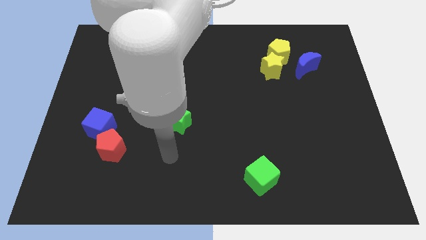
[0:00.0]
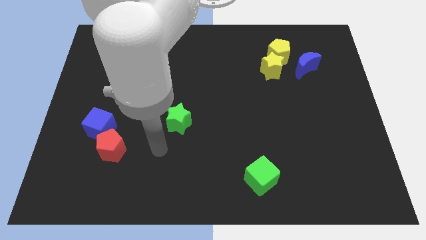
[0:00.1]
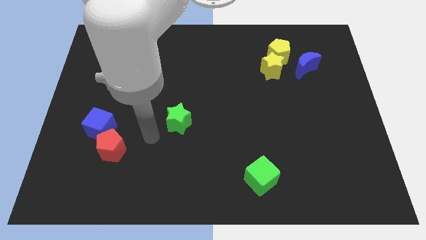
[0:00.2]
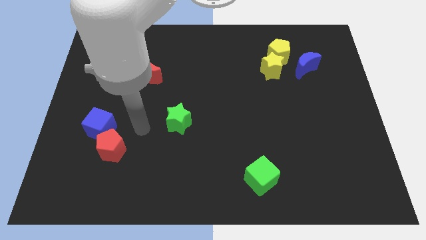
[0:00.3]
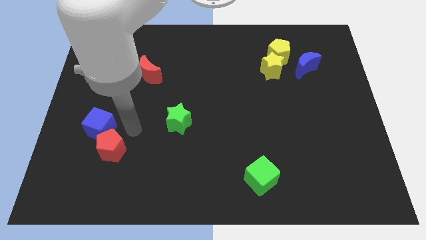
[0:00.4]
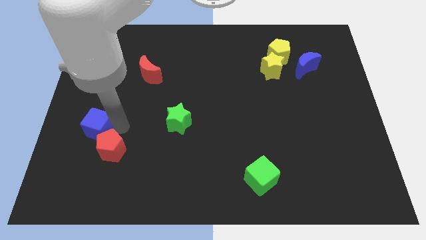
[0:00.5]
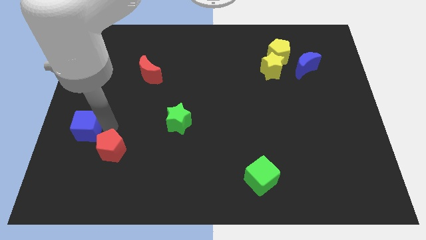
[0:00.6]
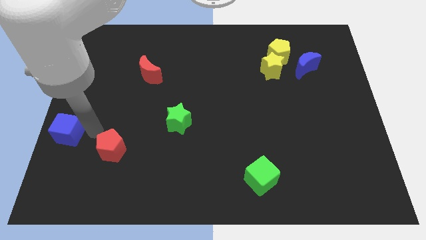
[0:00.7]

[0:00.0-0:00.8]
pull the red pentagon apart from the blue cube

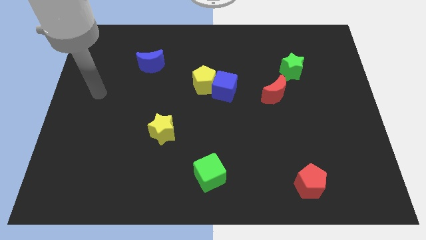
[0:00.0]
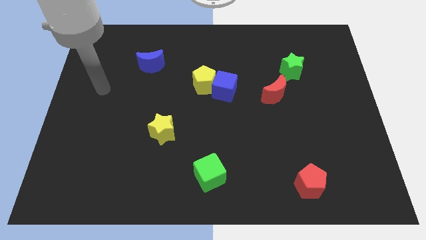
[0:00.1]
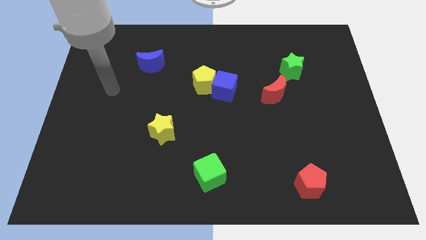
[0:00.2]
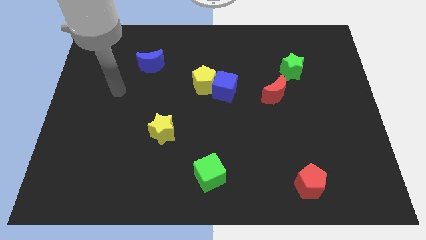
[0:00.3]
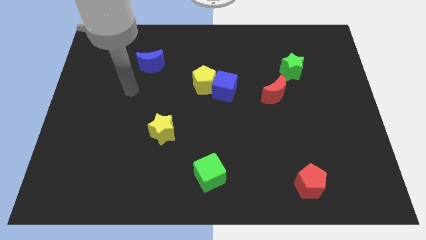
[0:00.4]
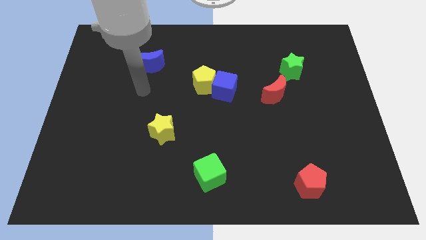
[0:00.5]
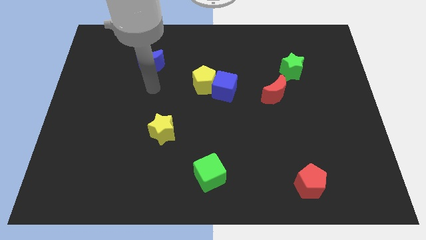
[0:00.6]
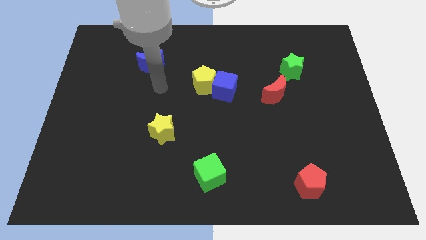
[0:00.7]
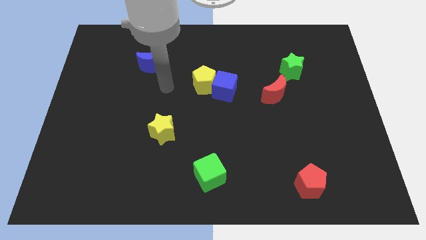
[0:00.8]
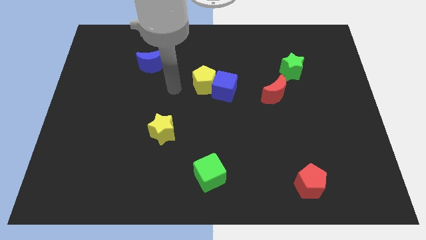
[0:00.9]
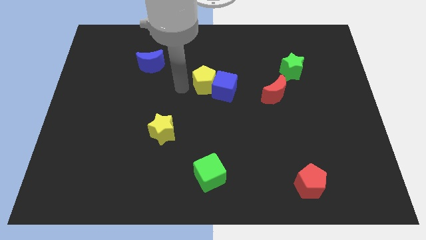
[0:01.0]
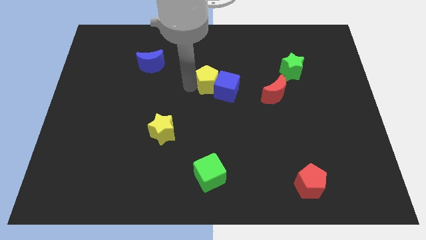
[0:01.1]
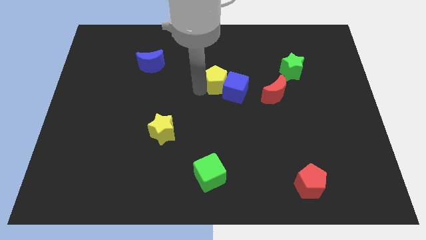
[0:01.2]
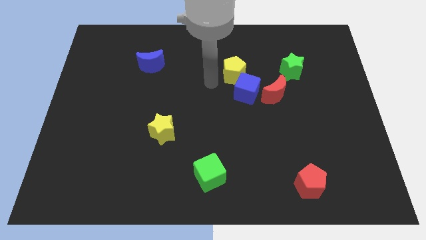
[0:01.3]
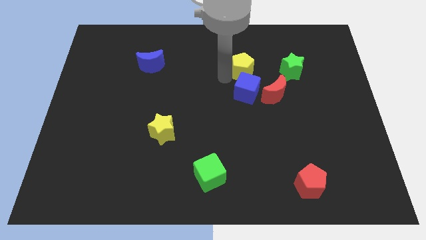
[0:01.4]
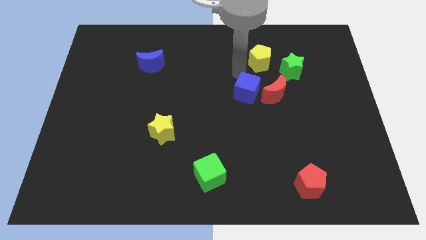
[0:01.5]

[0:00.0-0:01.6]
separate the blue cube from the yellow pentagon

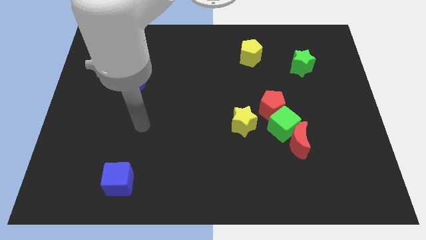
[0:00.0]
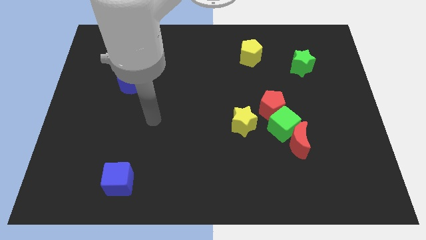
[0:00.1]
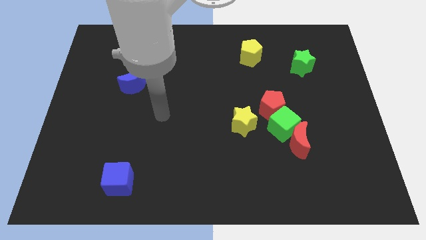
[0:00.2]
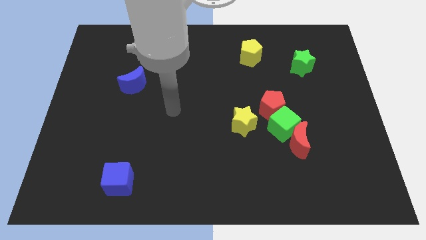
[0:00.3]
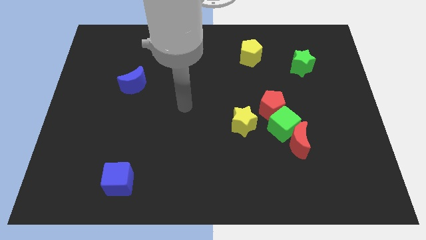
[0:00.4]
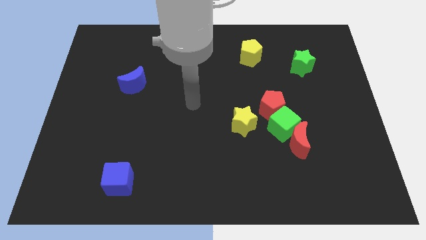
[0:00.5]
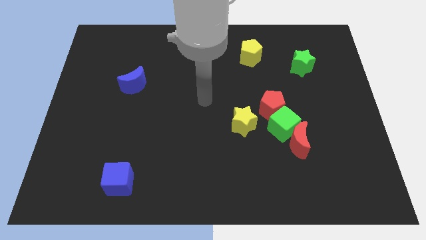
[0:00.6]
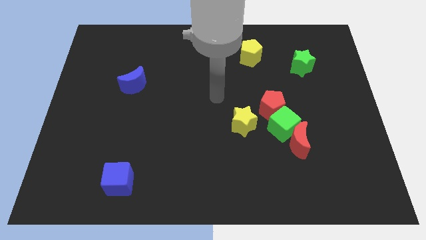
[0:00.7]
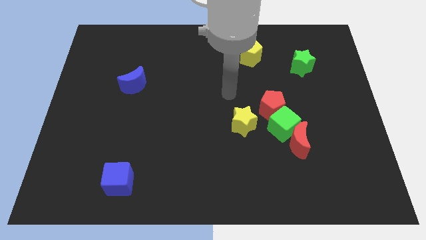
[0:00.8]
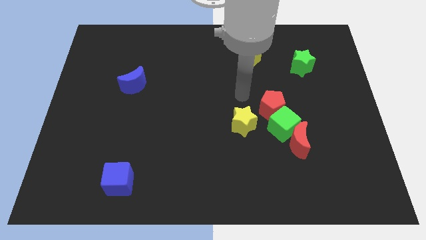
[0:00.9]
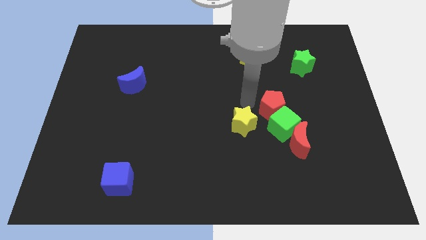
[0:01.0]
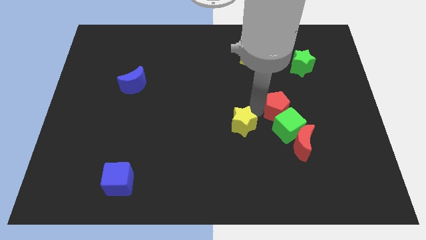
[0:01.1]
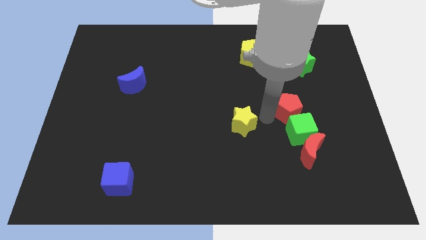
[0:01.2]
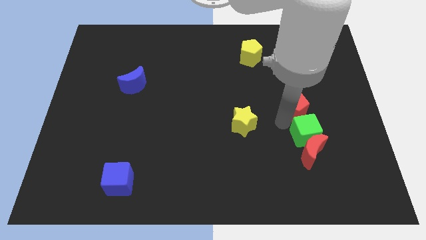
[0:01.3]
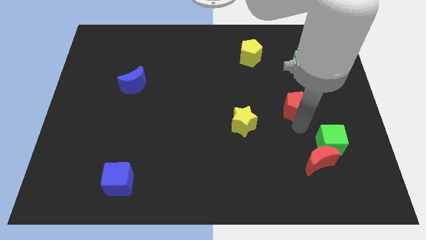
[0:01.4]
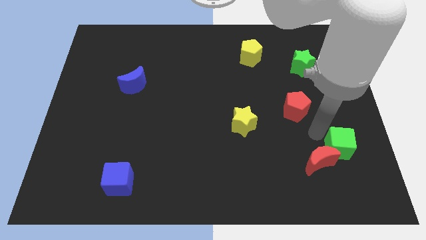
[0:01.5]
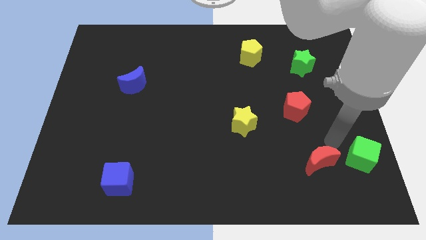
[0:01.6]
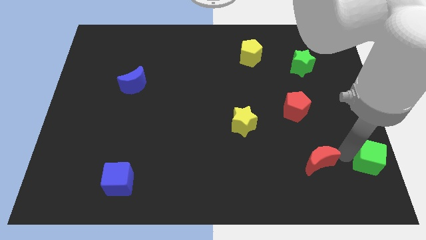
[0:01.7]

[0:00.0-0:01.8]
separate the red moon from the green cube

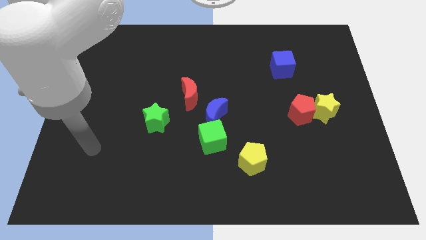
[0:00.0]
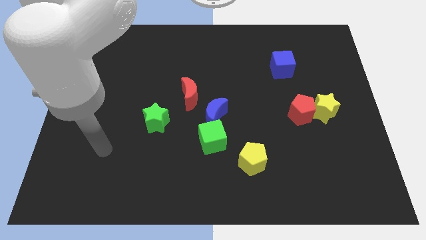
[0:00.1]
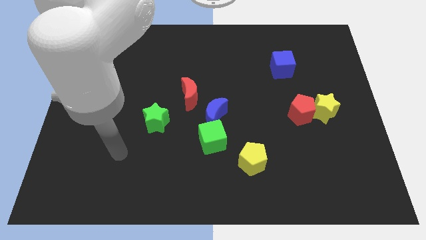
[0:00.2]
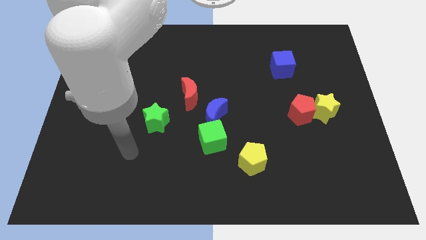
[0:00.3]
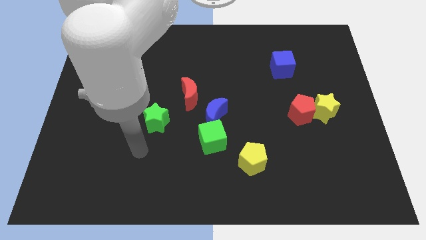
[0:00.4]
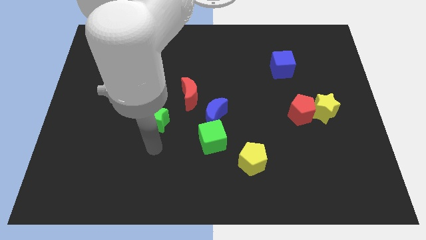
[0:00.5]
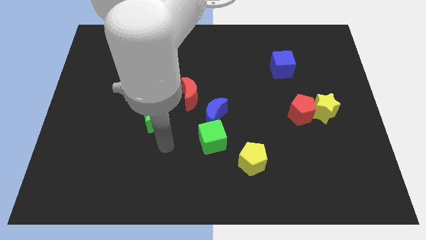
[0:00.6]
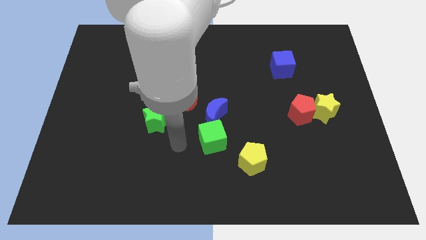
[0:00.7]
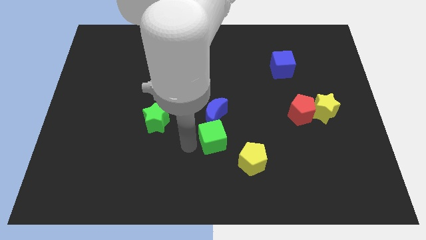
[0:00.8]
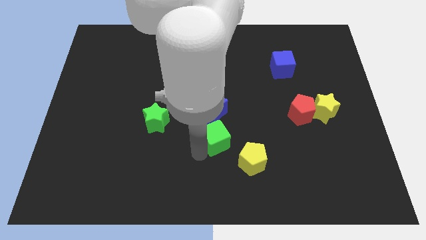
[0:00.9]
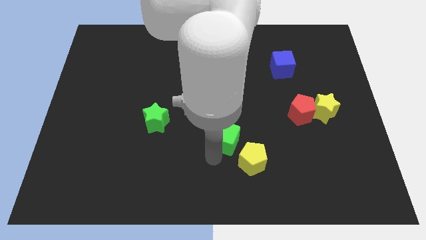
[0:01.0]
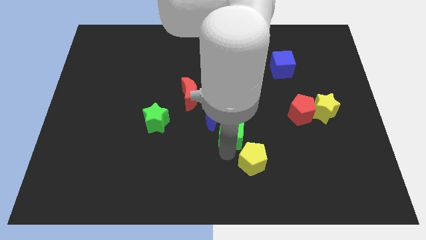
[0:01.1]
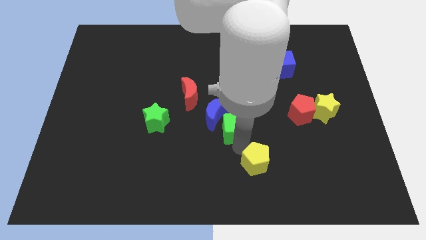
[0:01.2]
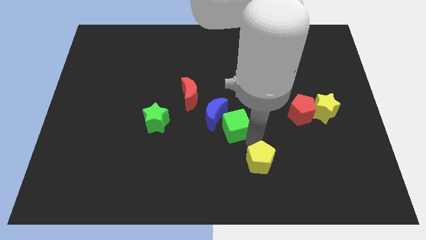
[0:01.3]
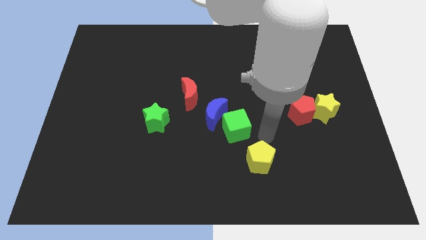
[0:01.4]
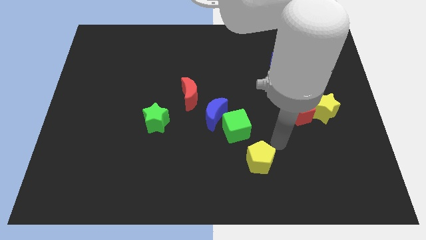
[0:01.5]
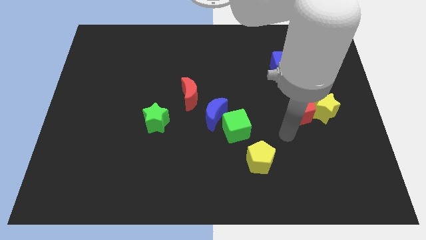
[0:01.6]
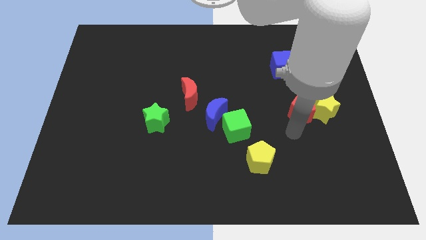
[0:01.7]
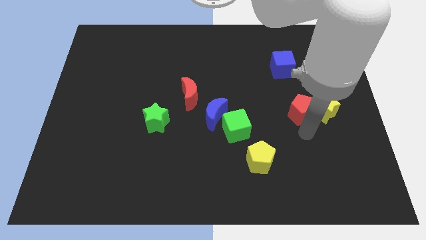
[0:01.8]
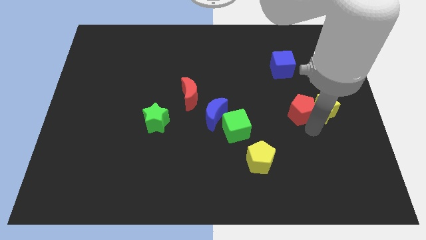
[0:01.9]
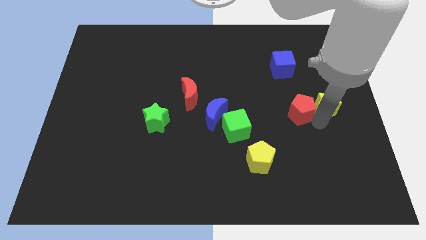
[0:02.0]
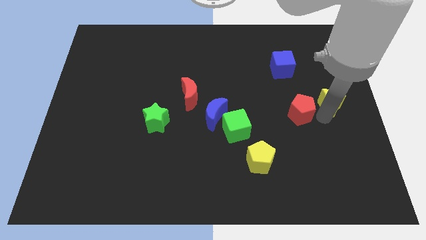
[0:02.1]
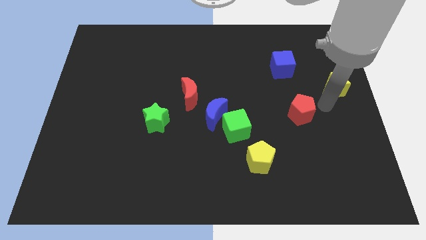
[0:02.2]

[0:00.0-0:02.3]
pull the red pentagon apart from the yellow star

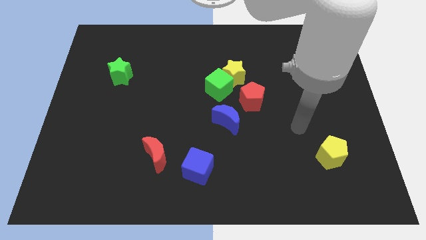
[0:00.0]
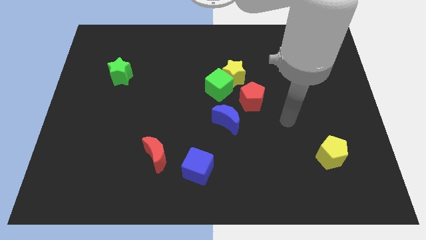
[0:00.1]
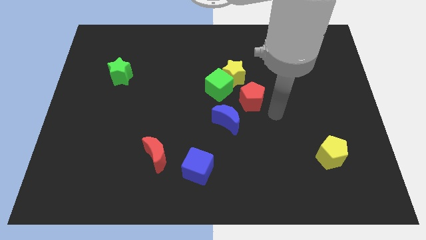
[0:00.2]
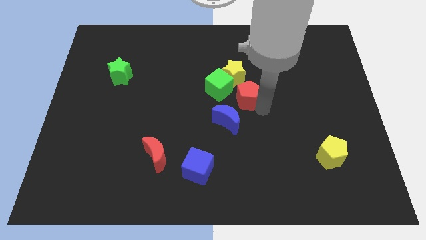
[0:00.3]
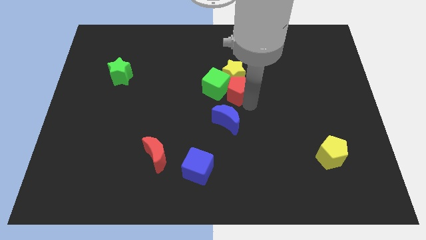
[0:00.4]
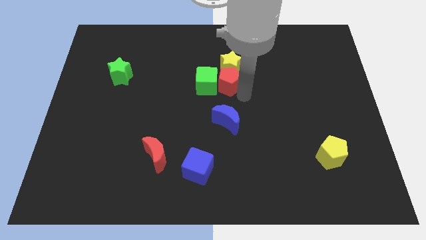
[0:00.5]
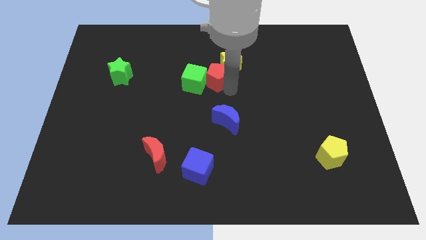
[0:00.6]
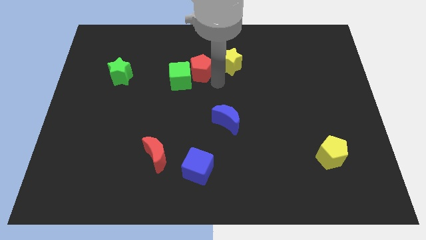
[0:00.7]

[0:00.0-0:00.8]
move the yellow star away from the green cube and red pentagon

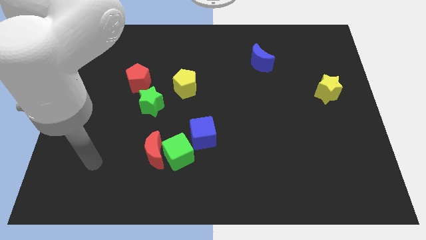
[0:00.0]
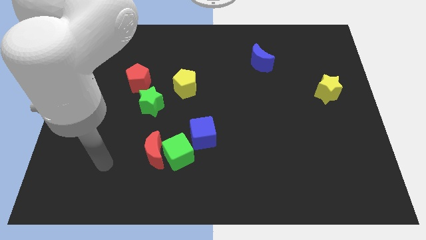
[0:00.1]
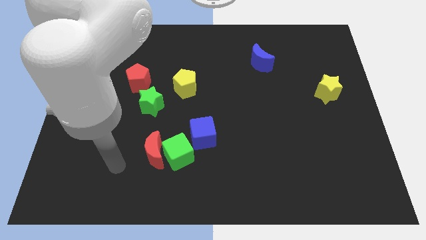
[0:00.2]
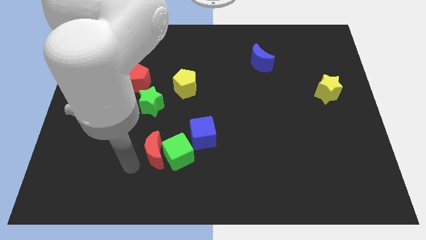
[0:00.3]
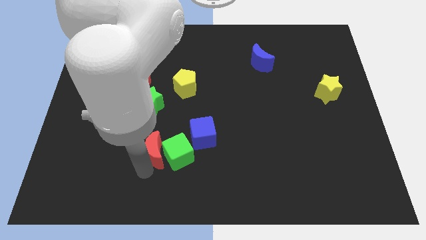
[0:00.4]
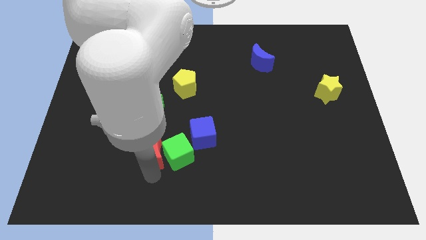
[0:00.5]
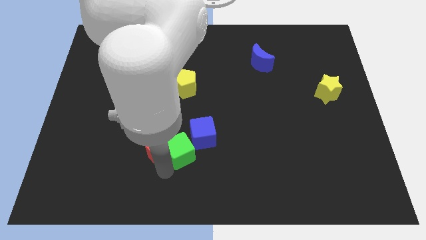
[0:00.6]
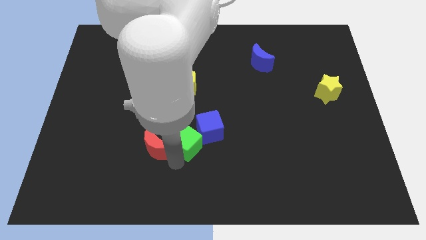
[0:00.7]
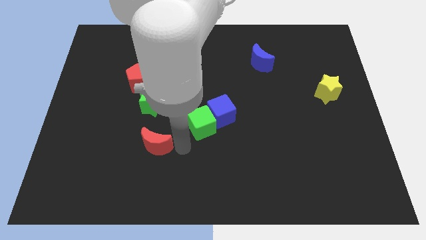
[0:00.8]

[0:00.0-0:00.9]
move the red moon away from the green cube

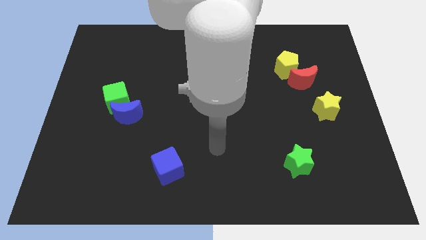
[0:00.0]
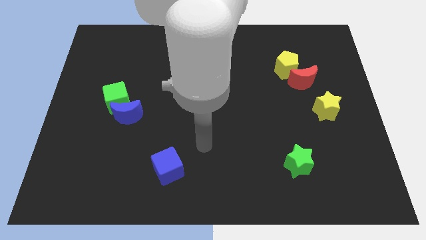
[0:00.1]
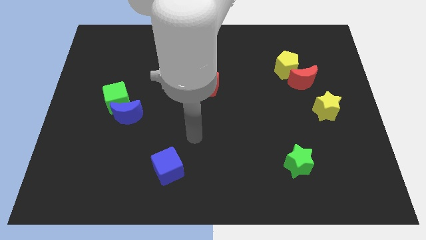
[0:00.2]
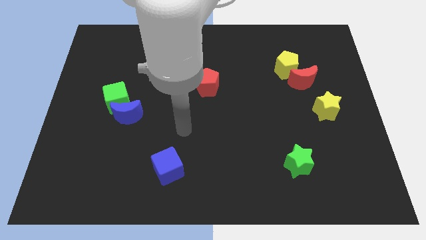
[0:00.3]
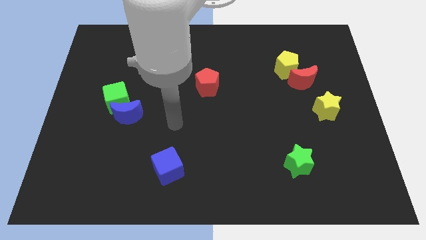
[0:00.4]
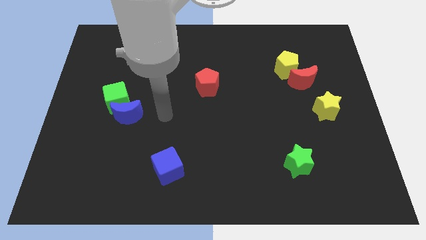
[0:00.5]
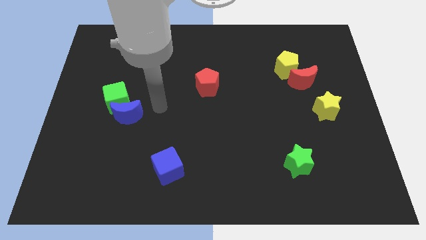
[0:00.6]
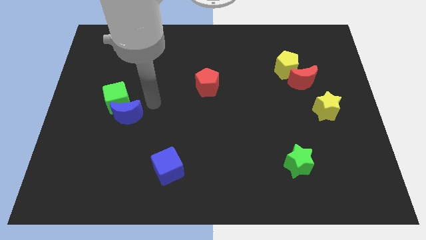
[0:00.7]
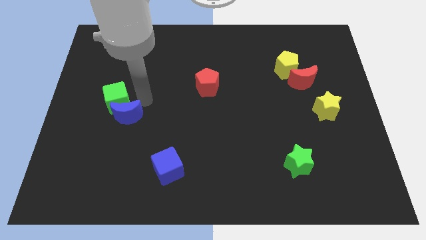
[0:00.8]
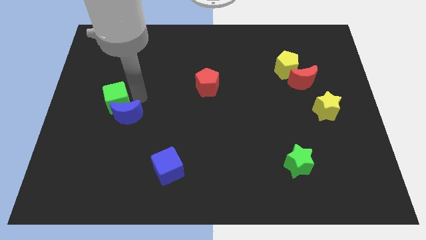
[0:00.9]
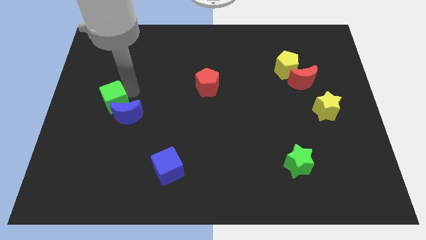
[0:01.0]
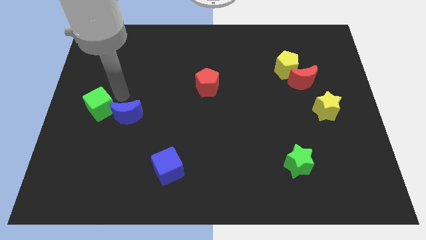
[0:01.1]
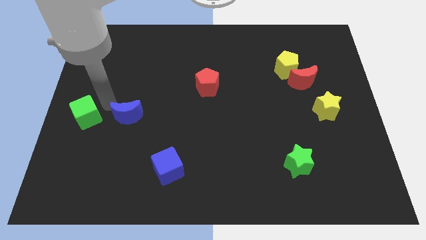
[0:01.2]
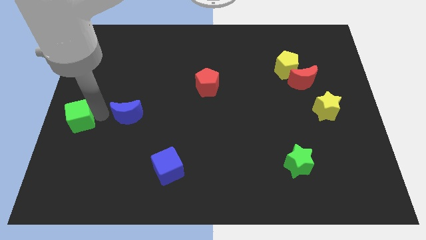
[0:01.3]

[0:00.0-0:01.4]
pull the blue moon apart from the green cube
